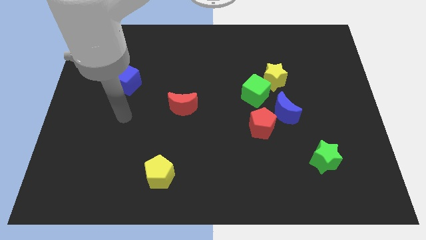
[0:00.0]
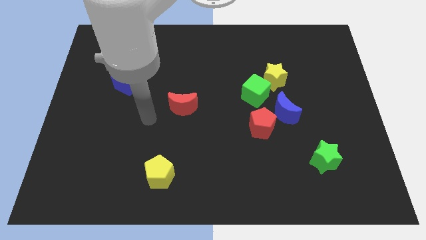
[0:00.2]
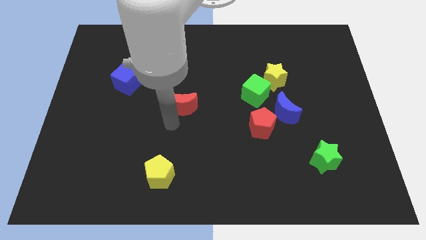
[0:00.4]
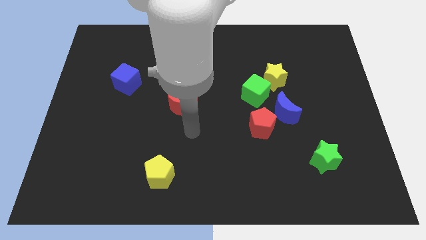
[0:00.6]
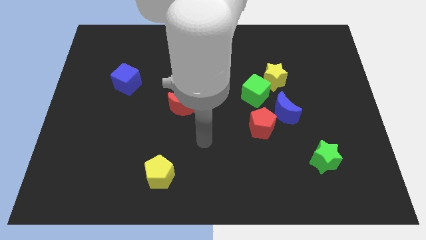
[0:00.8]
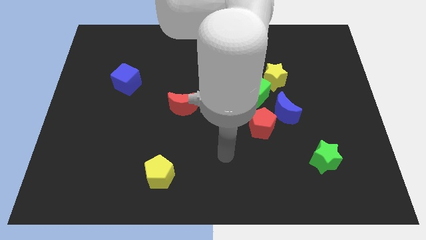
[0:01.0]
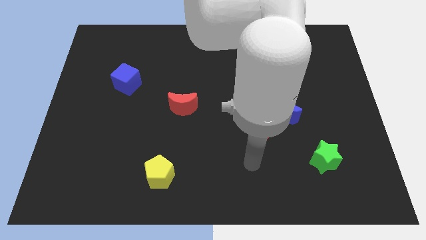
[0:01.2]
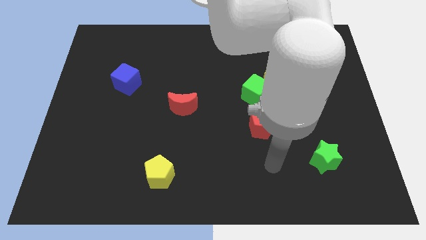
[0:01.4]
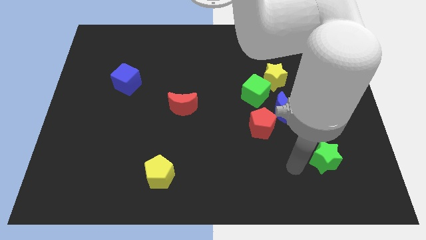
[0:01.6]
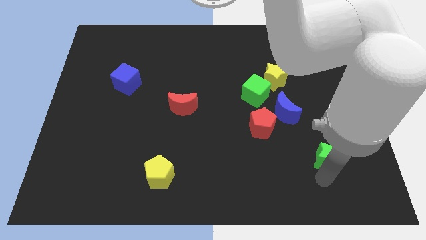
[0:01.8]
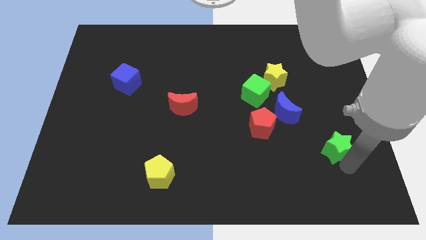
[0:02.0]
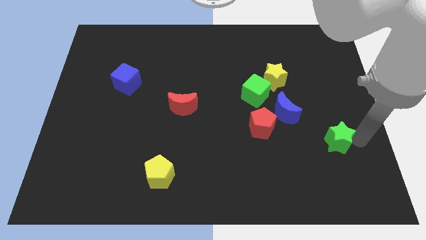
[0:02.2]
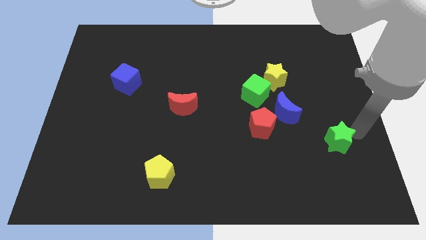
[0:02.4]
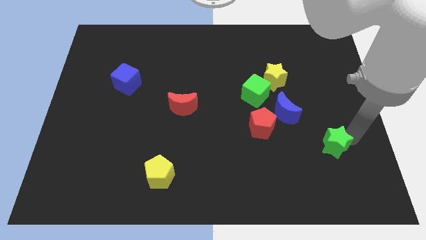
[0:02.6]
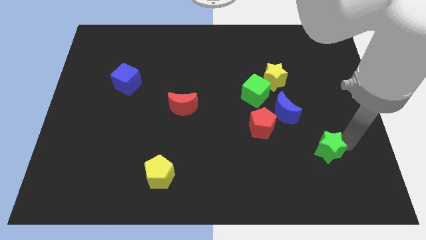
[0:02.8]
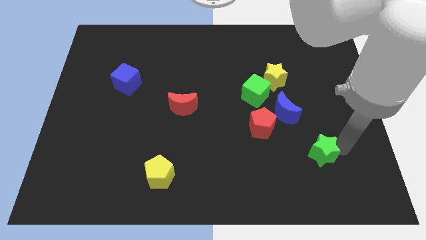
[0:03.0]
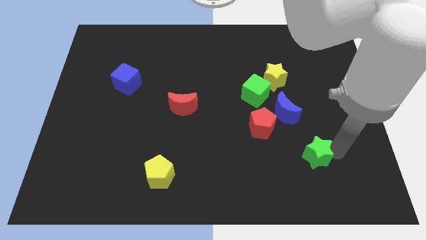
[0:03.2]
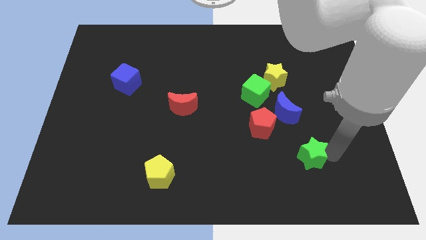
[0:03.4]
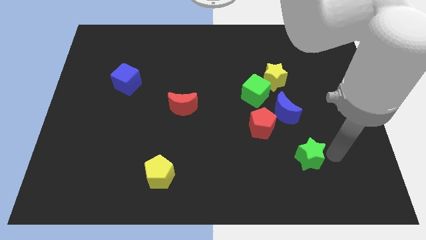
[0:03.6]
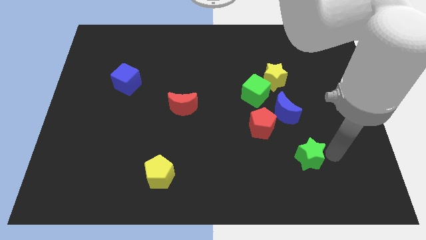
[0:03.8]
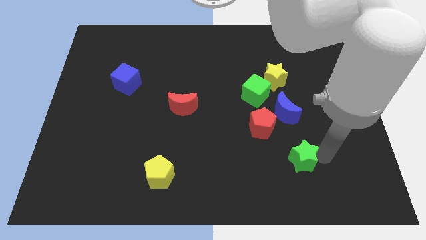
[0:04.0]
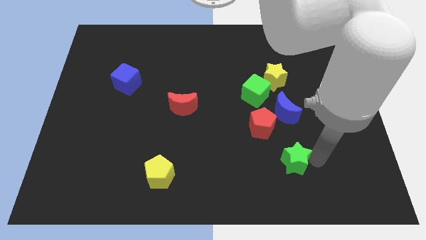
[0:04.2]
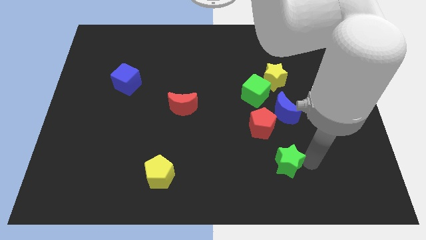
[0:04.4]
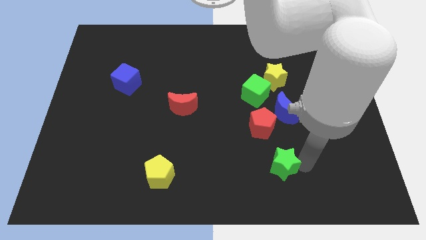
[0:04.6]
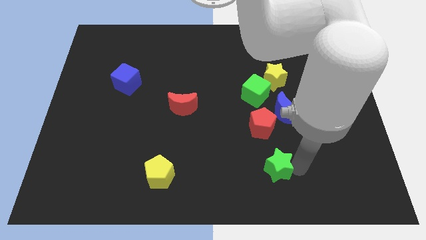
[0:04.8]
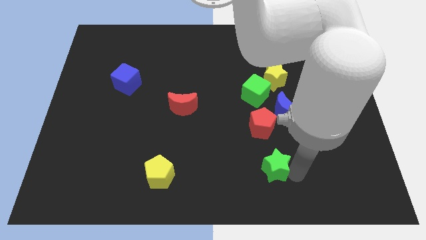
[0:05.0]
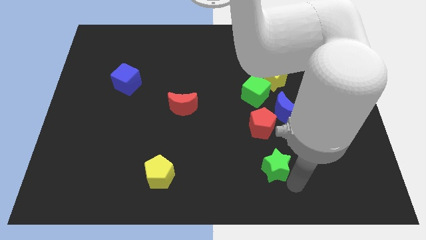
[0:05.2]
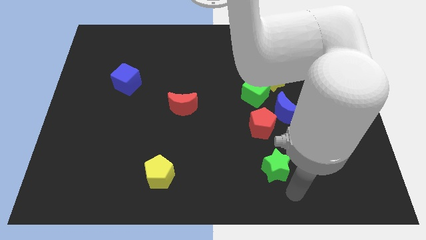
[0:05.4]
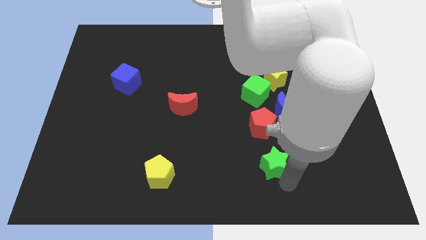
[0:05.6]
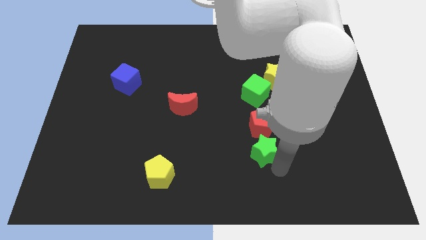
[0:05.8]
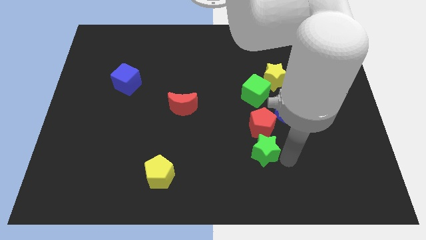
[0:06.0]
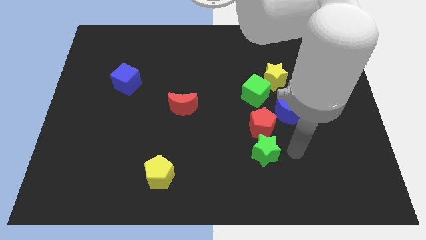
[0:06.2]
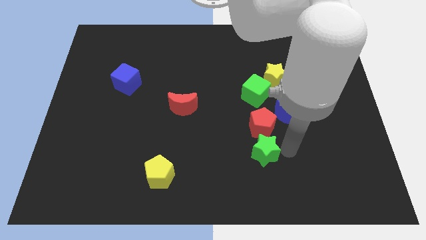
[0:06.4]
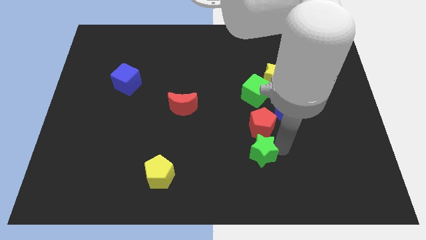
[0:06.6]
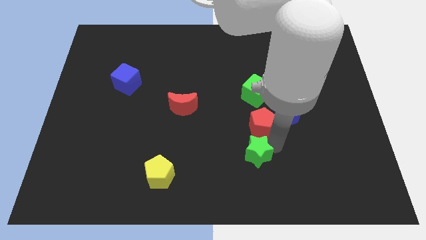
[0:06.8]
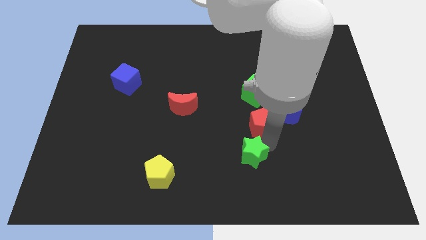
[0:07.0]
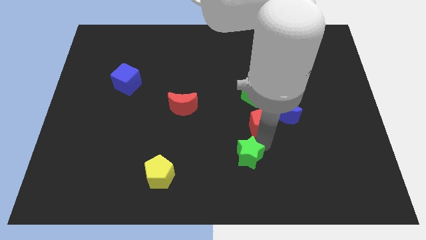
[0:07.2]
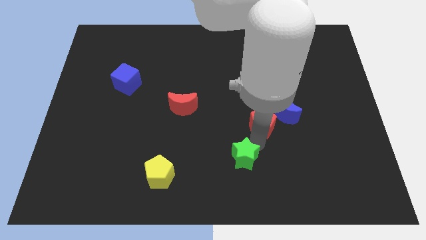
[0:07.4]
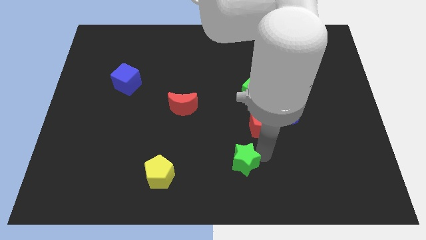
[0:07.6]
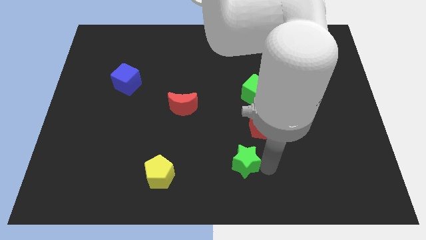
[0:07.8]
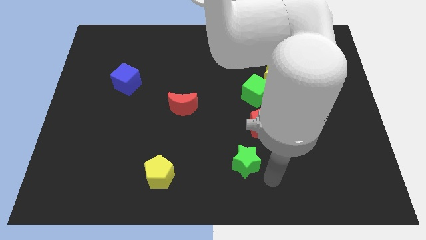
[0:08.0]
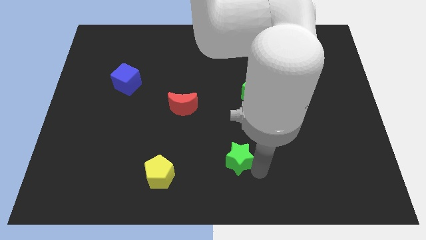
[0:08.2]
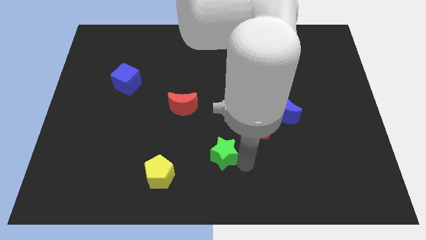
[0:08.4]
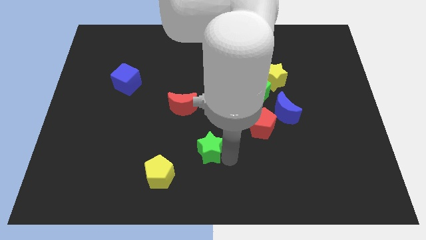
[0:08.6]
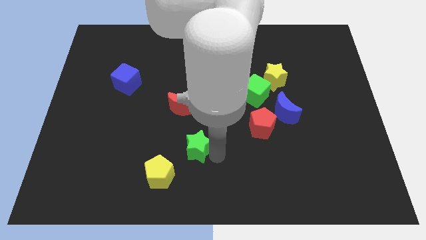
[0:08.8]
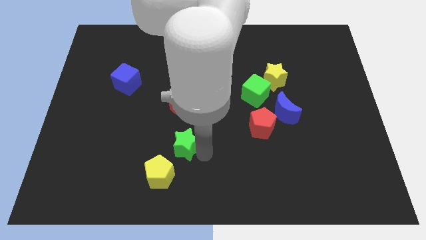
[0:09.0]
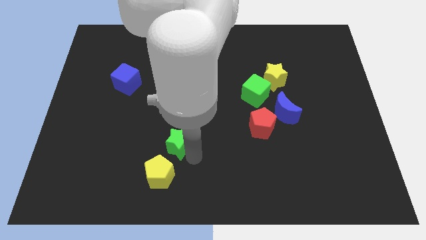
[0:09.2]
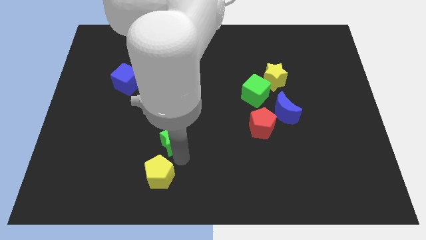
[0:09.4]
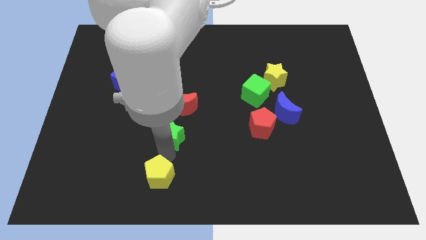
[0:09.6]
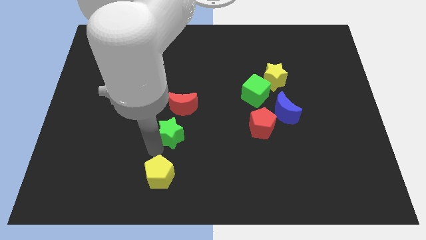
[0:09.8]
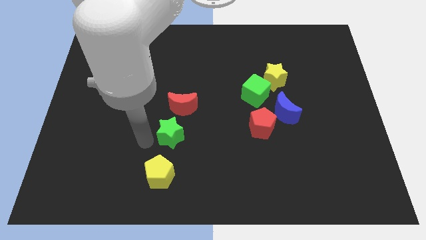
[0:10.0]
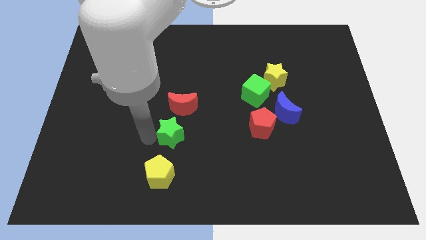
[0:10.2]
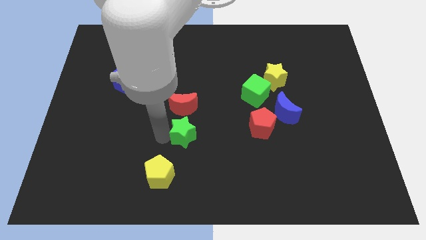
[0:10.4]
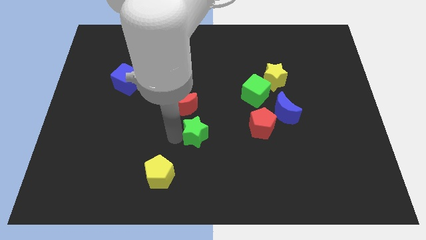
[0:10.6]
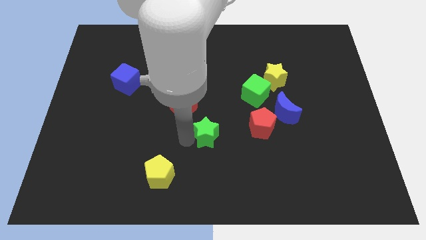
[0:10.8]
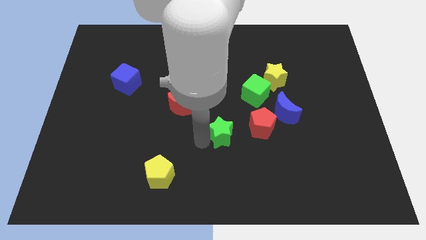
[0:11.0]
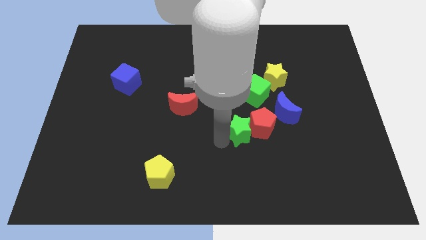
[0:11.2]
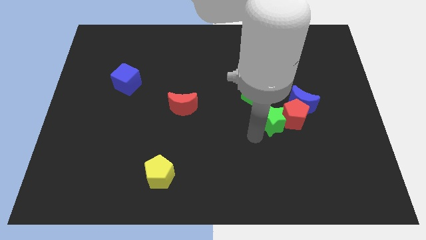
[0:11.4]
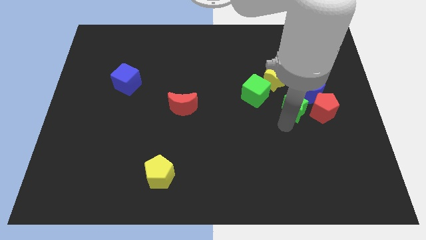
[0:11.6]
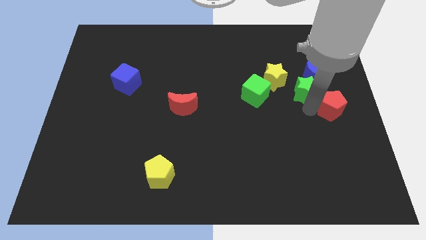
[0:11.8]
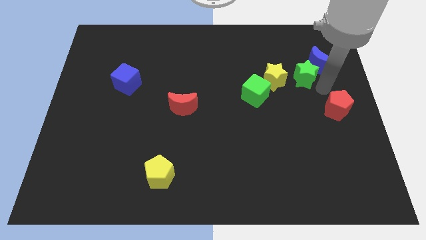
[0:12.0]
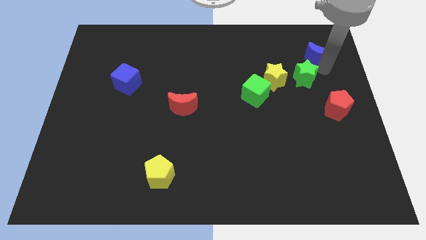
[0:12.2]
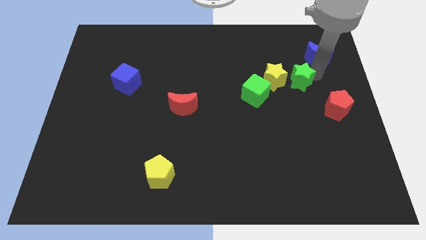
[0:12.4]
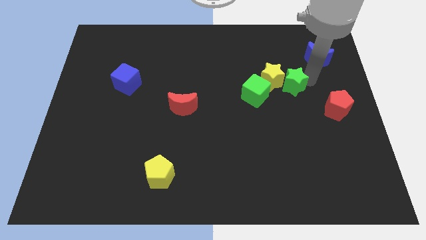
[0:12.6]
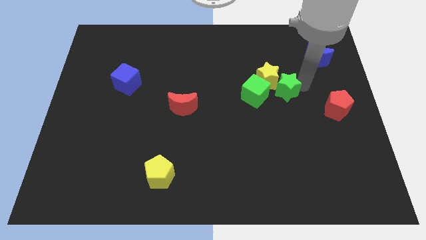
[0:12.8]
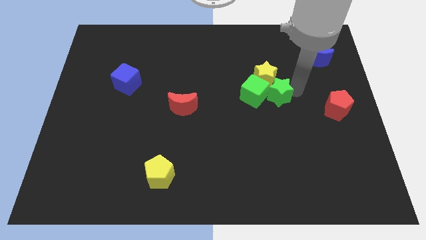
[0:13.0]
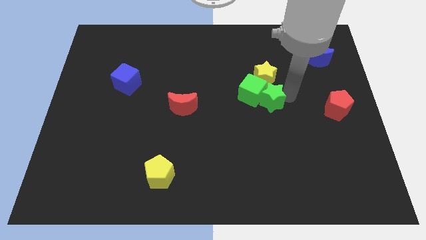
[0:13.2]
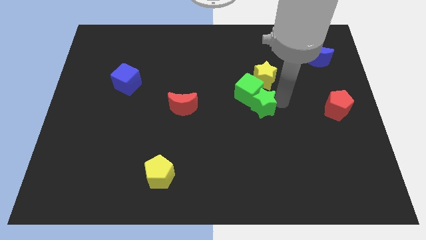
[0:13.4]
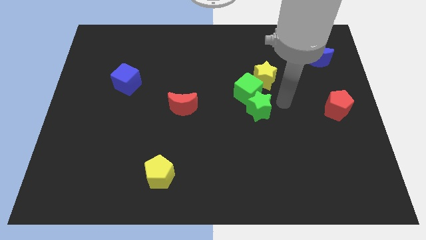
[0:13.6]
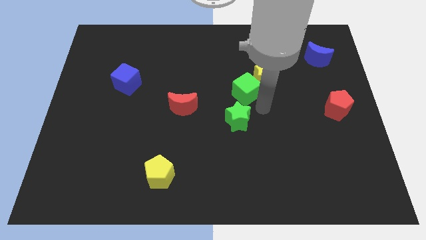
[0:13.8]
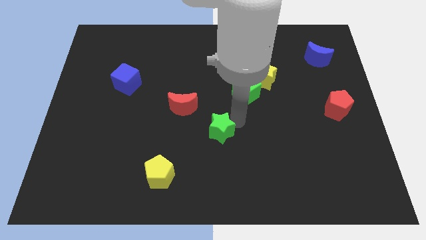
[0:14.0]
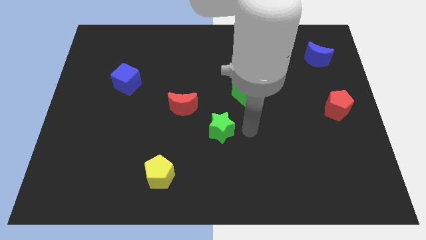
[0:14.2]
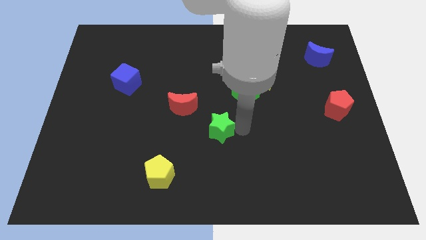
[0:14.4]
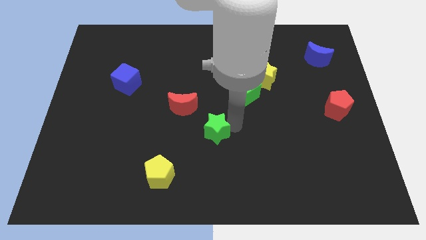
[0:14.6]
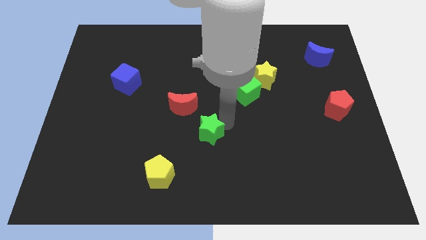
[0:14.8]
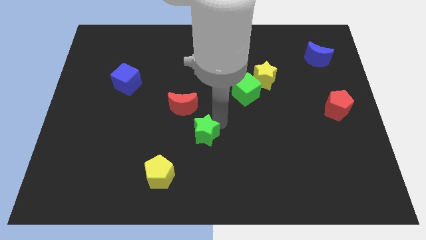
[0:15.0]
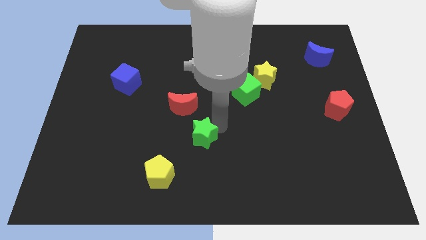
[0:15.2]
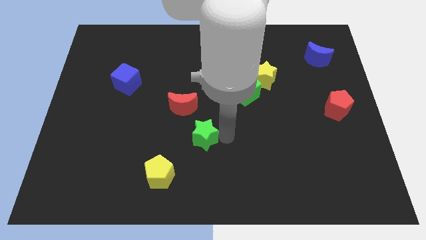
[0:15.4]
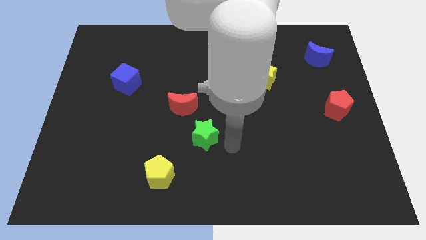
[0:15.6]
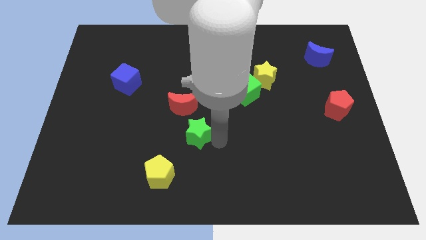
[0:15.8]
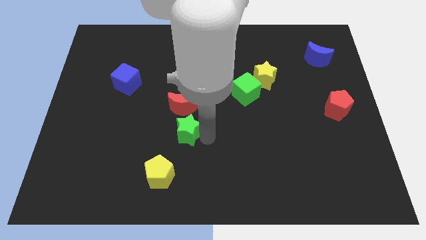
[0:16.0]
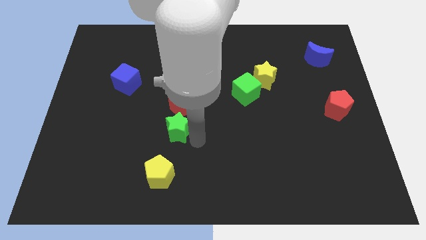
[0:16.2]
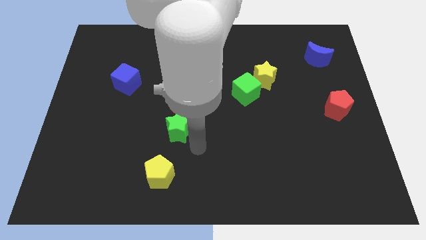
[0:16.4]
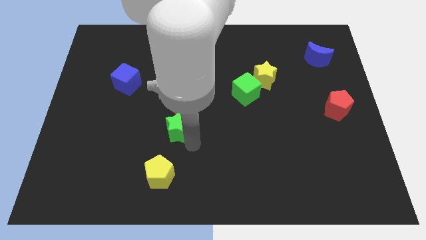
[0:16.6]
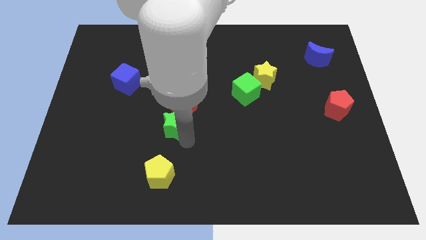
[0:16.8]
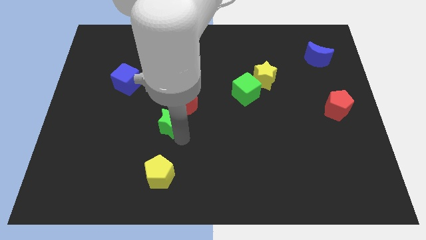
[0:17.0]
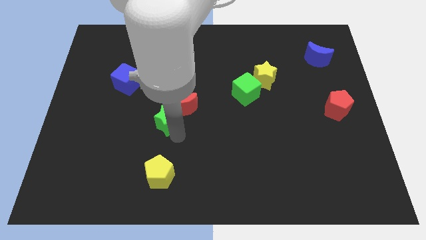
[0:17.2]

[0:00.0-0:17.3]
move the green star left of the red moon
